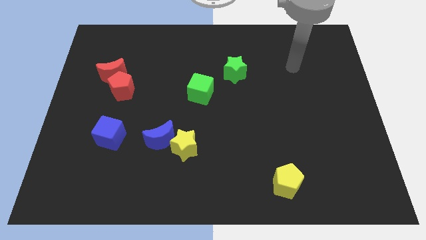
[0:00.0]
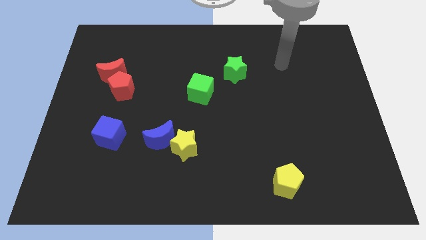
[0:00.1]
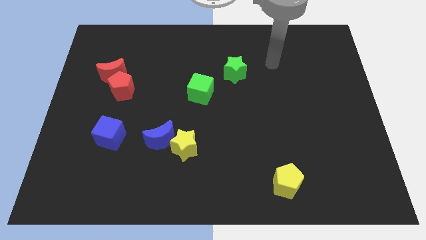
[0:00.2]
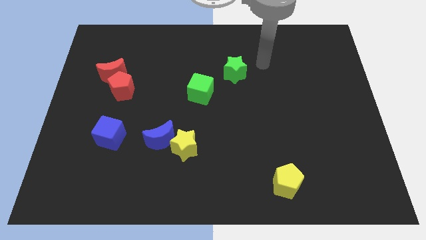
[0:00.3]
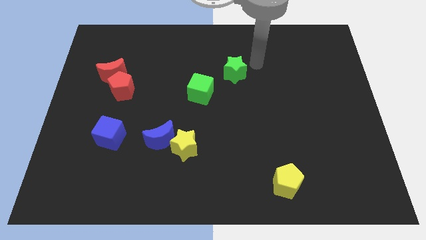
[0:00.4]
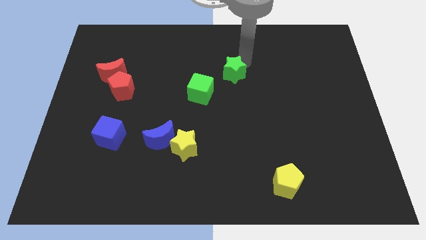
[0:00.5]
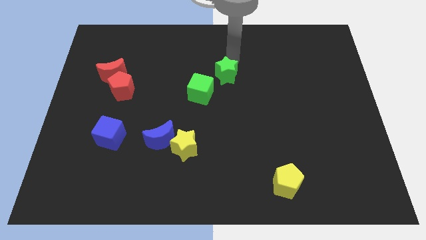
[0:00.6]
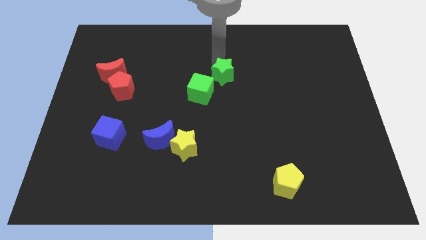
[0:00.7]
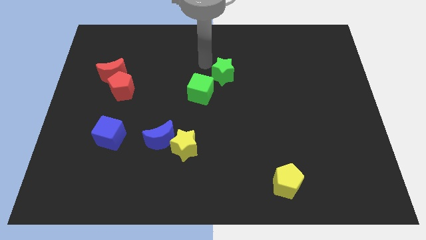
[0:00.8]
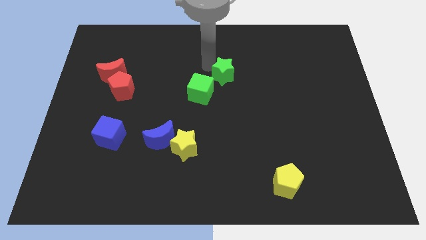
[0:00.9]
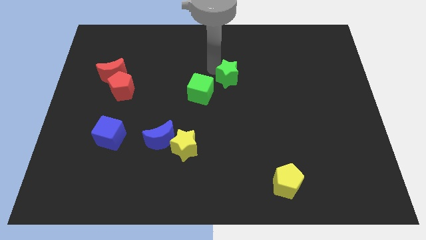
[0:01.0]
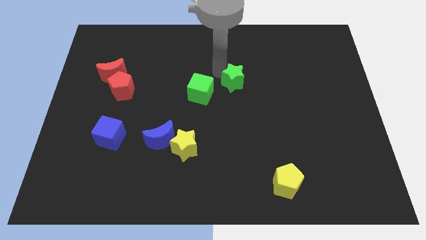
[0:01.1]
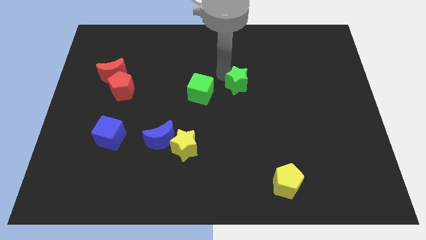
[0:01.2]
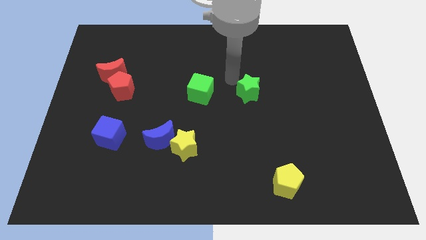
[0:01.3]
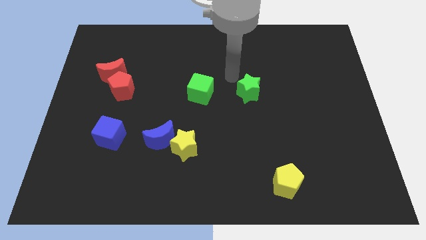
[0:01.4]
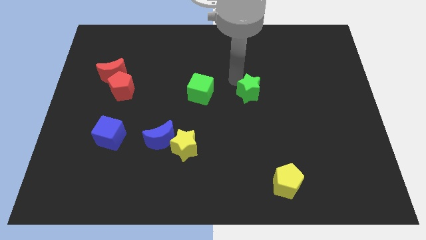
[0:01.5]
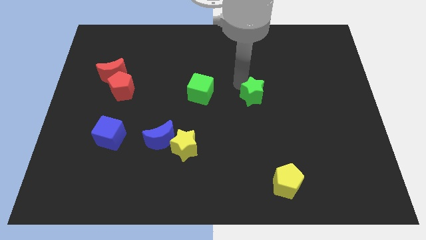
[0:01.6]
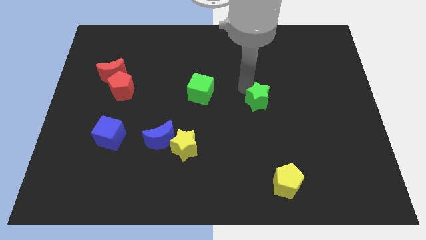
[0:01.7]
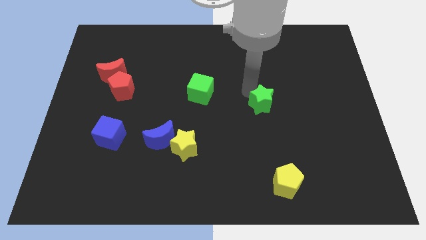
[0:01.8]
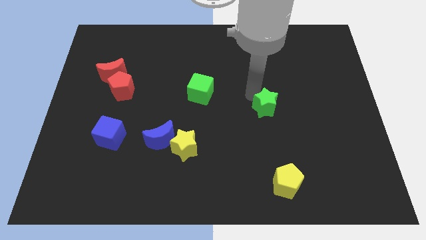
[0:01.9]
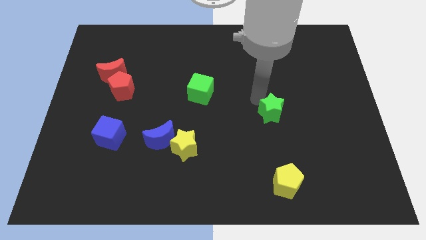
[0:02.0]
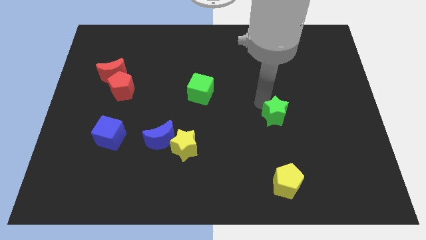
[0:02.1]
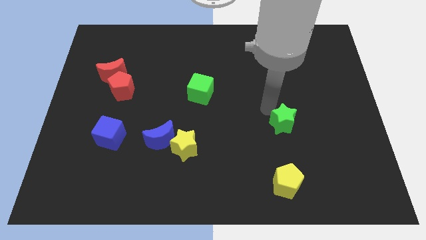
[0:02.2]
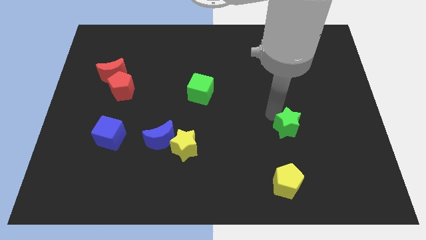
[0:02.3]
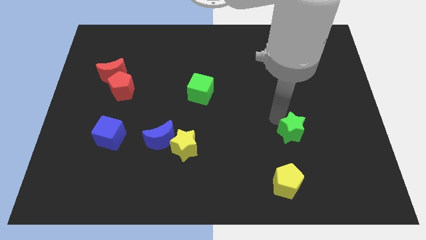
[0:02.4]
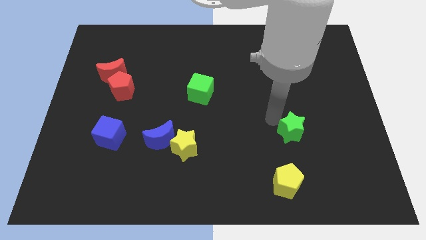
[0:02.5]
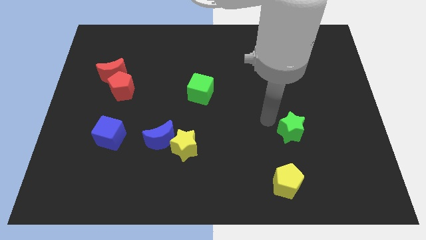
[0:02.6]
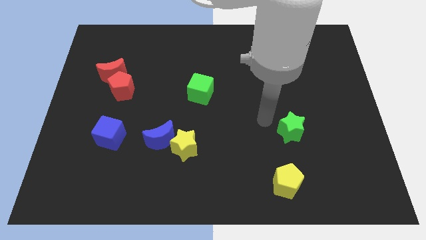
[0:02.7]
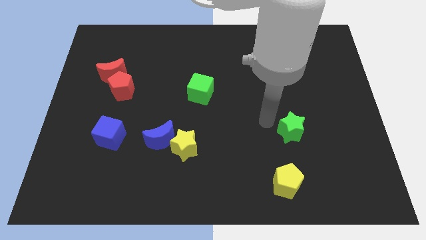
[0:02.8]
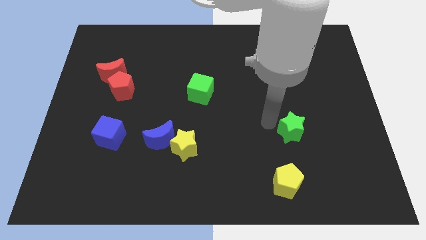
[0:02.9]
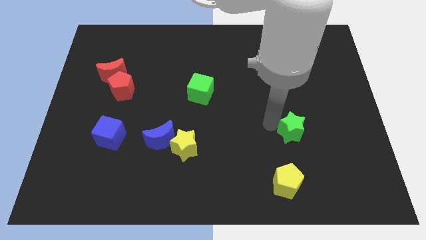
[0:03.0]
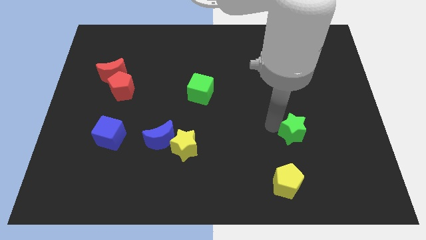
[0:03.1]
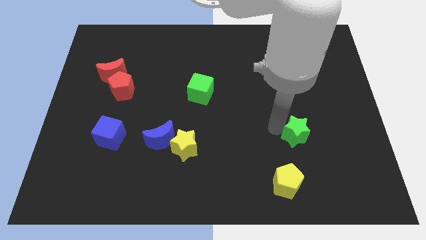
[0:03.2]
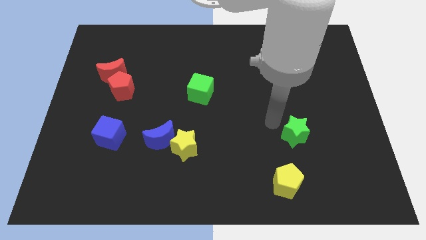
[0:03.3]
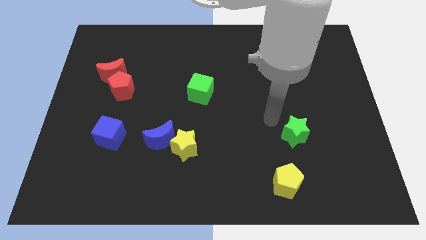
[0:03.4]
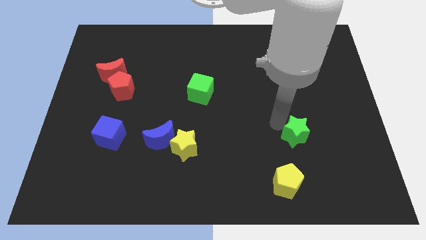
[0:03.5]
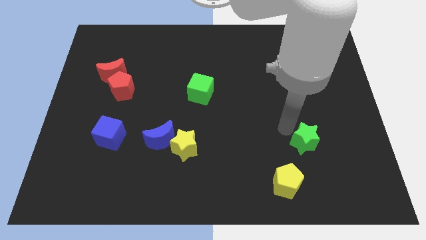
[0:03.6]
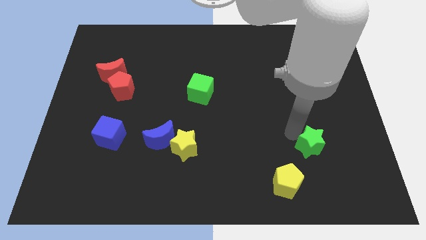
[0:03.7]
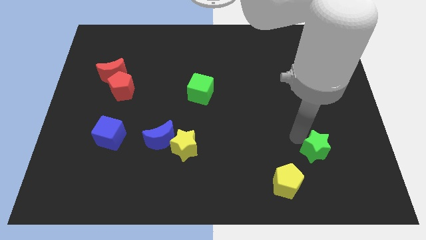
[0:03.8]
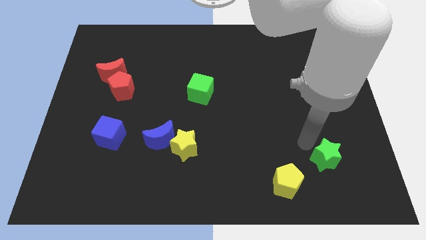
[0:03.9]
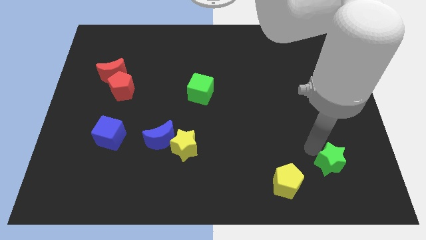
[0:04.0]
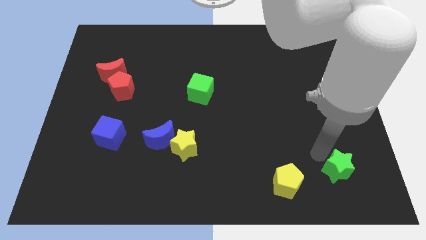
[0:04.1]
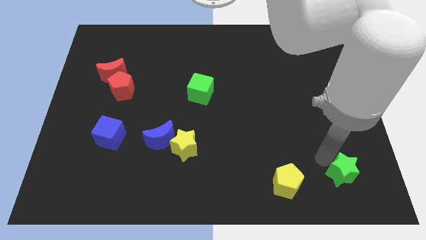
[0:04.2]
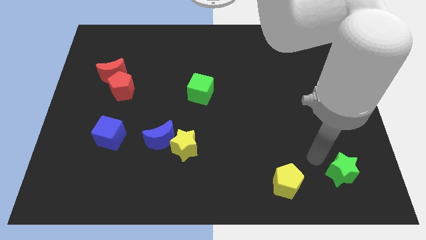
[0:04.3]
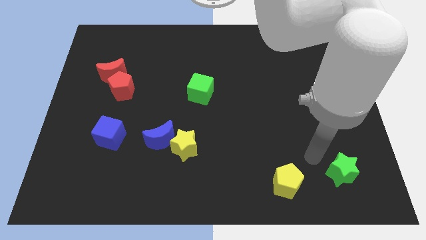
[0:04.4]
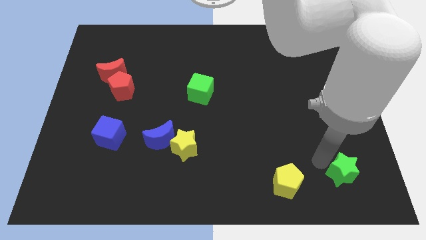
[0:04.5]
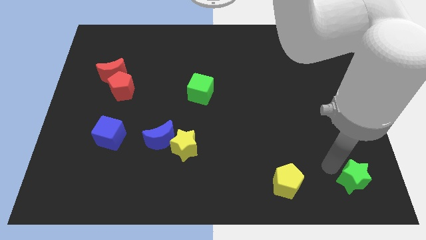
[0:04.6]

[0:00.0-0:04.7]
push the green star to the bottom right of the board

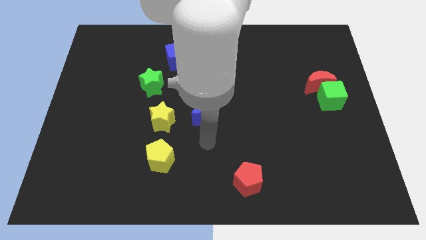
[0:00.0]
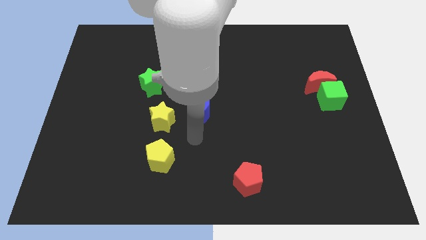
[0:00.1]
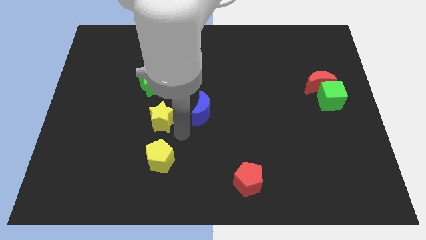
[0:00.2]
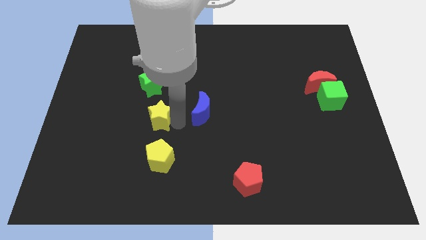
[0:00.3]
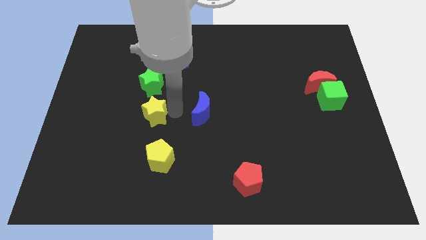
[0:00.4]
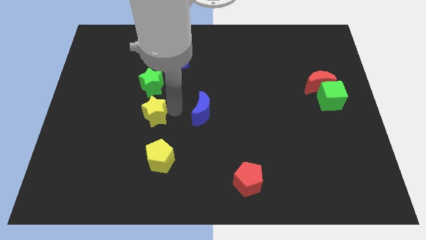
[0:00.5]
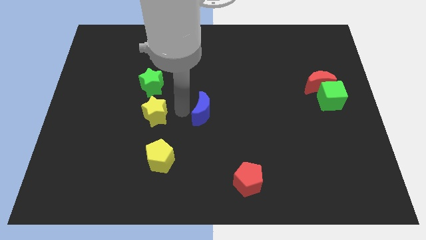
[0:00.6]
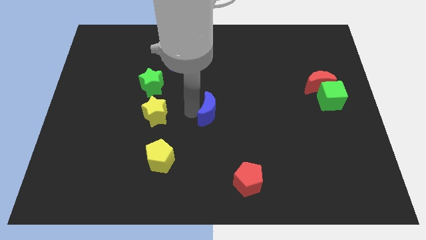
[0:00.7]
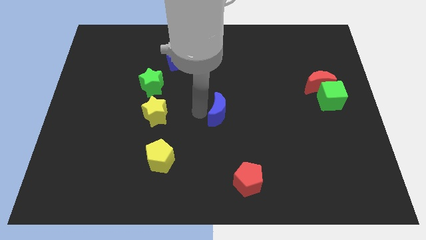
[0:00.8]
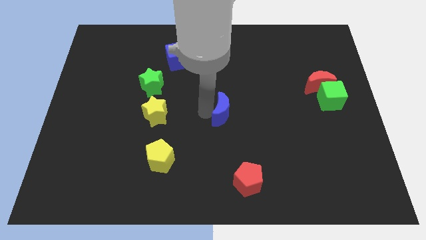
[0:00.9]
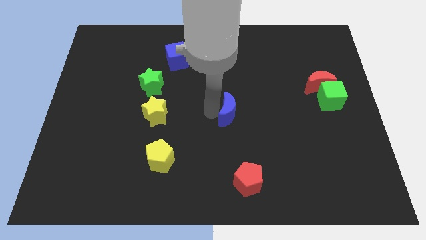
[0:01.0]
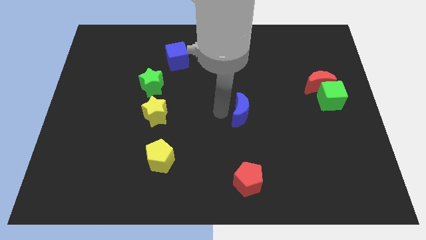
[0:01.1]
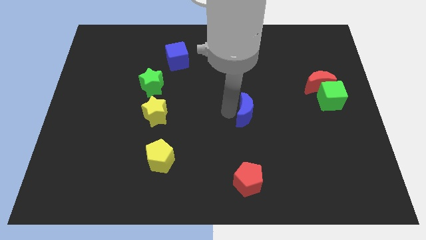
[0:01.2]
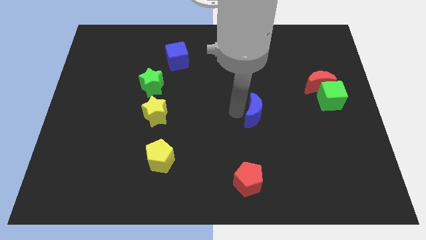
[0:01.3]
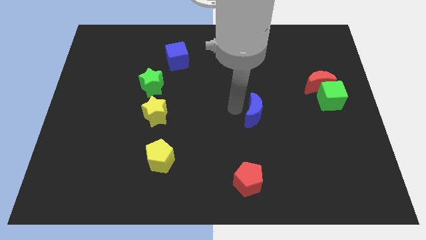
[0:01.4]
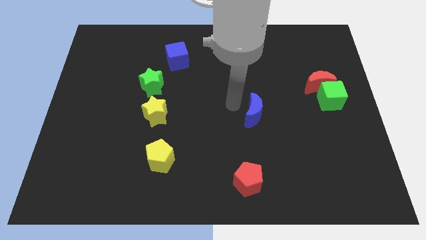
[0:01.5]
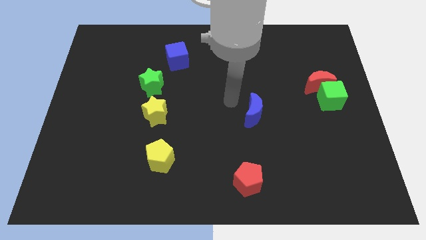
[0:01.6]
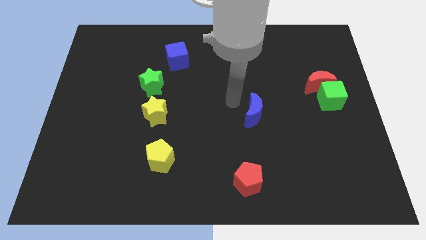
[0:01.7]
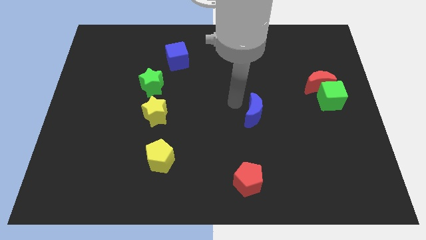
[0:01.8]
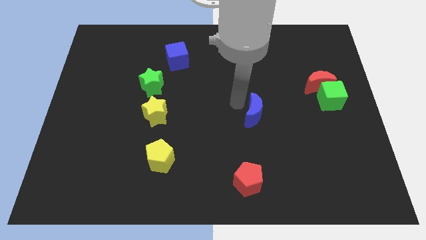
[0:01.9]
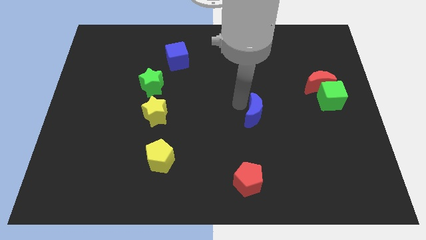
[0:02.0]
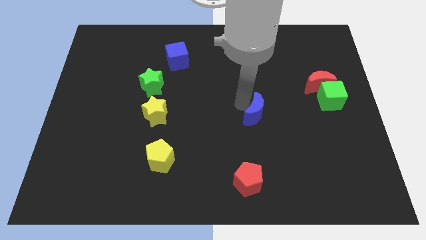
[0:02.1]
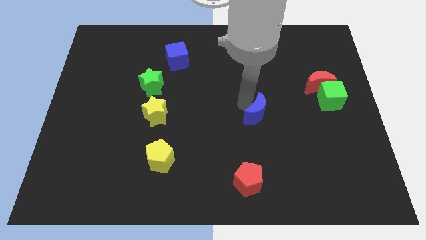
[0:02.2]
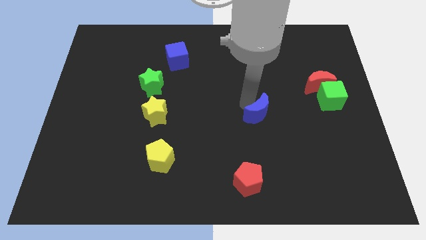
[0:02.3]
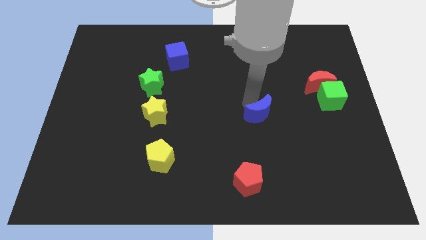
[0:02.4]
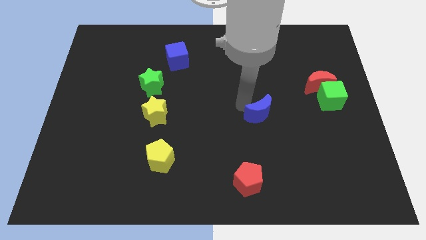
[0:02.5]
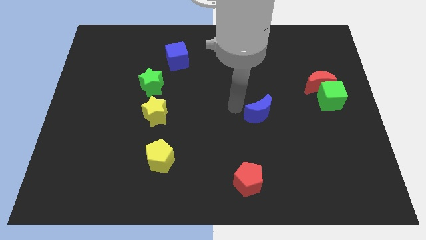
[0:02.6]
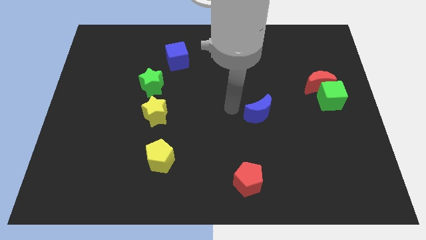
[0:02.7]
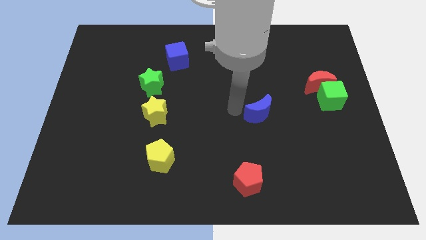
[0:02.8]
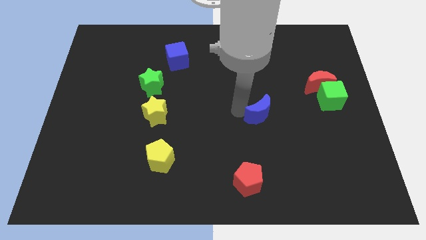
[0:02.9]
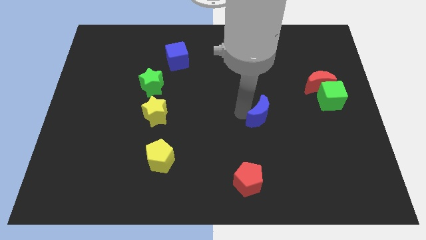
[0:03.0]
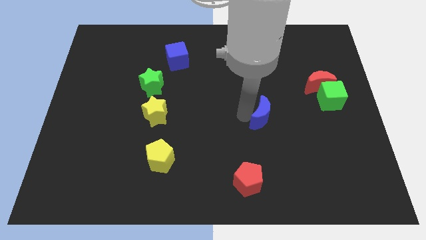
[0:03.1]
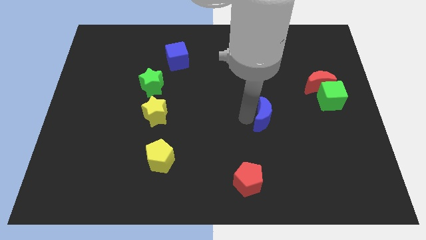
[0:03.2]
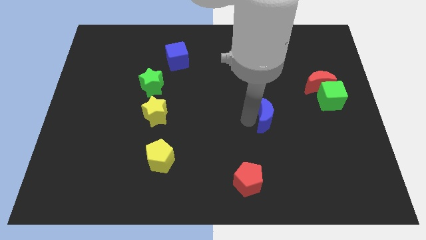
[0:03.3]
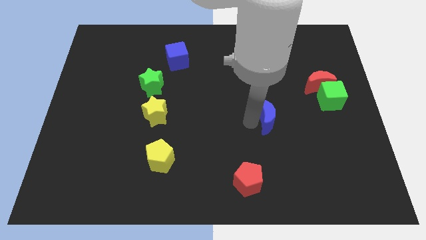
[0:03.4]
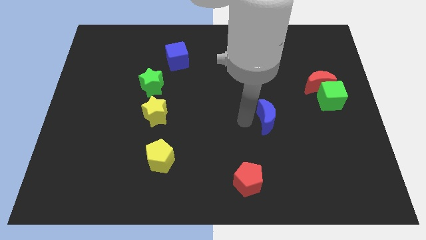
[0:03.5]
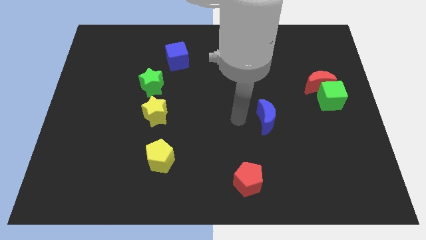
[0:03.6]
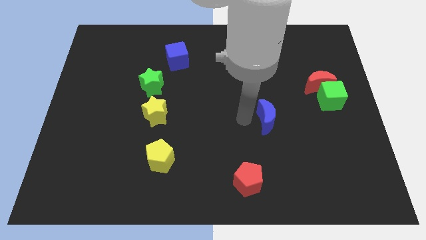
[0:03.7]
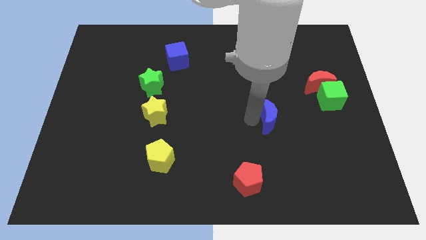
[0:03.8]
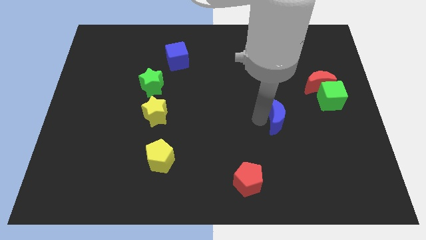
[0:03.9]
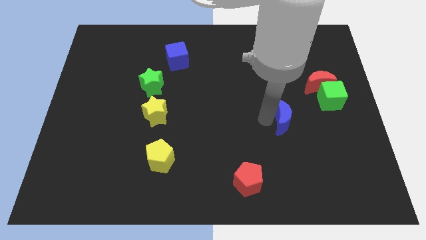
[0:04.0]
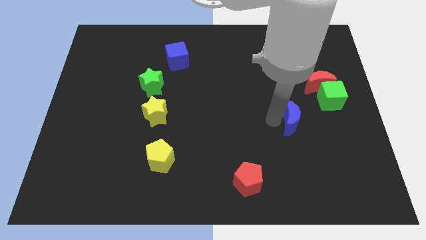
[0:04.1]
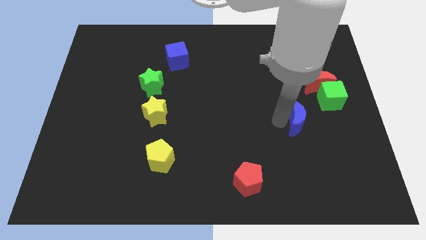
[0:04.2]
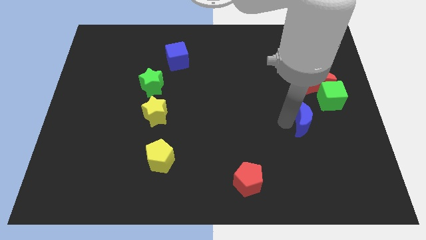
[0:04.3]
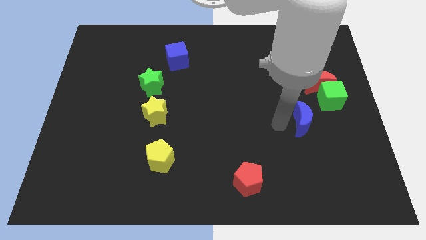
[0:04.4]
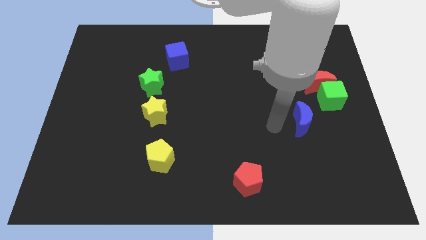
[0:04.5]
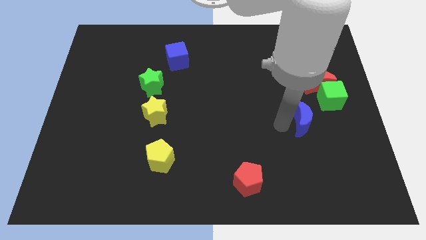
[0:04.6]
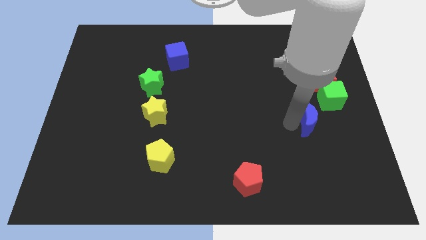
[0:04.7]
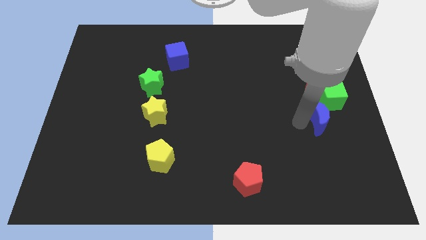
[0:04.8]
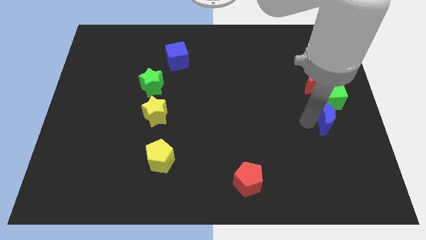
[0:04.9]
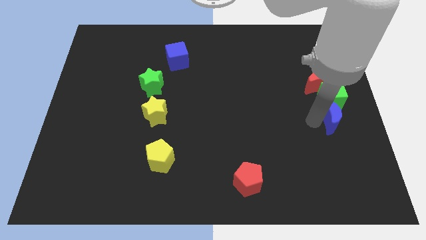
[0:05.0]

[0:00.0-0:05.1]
put the blue moon to the center right
